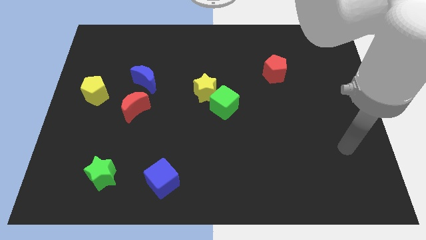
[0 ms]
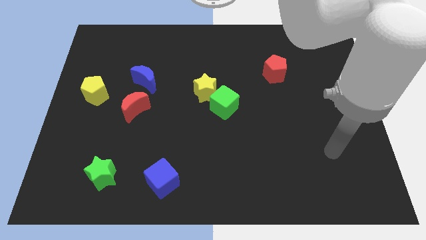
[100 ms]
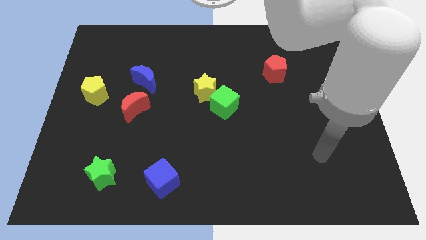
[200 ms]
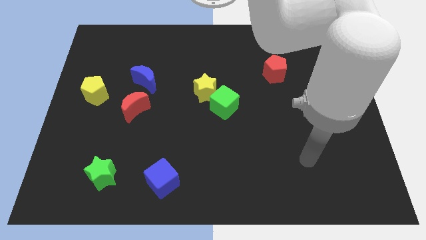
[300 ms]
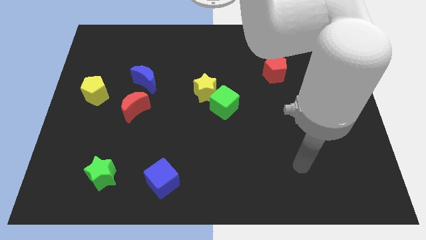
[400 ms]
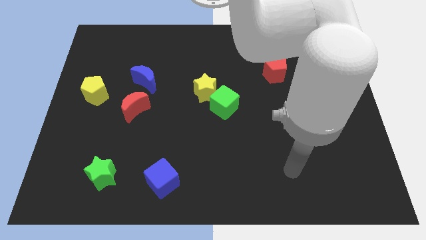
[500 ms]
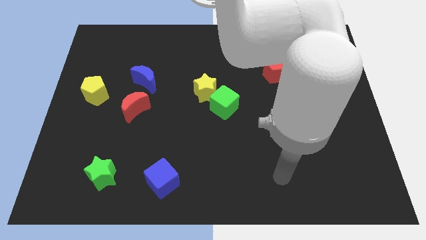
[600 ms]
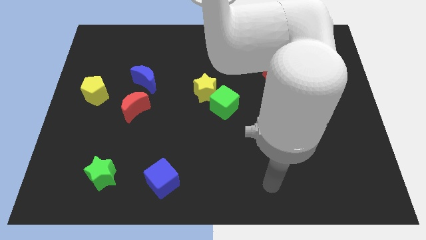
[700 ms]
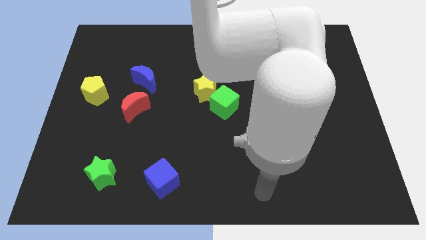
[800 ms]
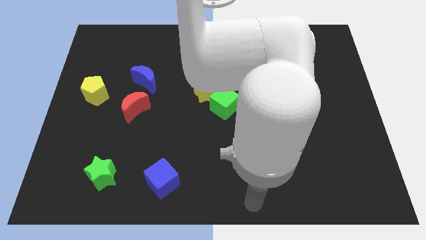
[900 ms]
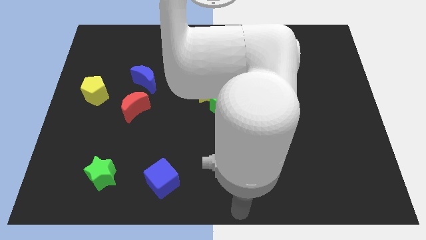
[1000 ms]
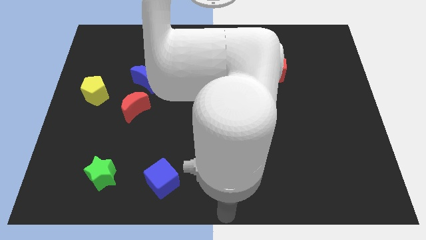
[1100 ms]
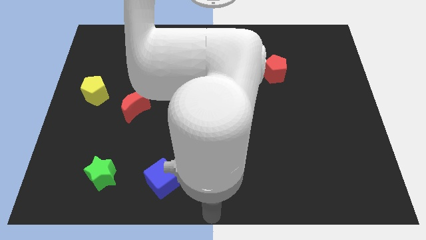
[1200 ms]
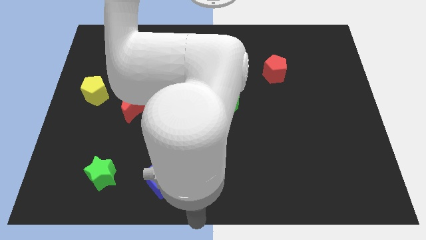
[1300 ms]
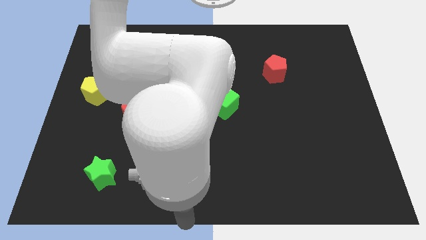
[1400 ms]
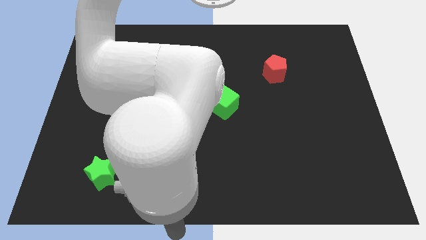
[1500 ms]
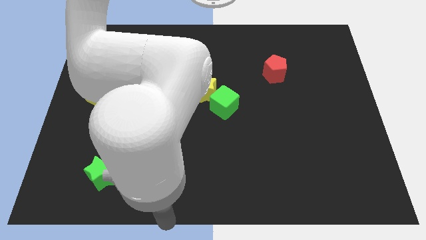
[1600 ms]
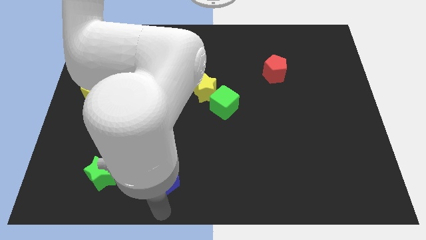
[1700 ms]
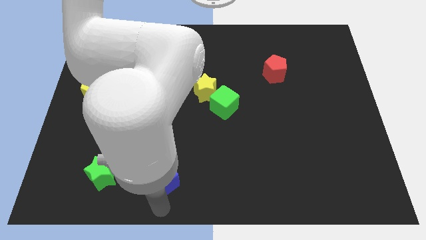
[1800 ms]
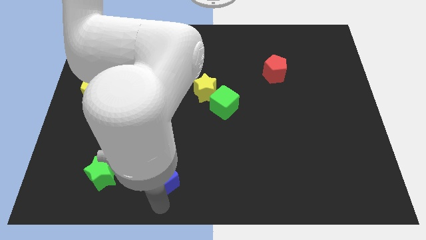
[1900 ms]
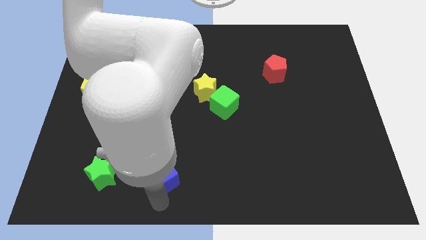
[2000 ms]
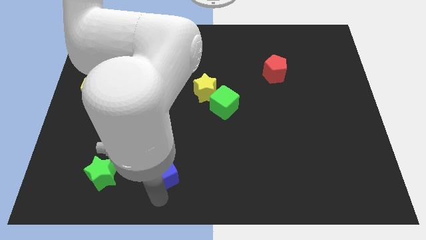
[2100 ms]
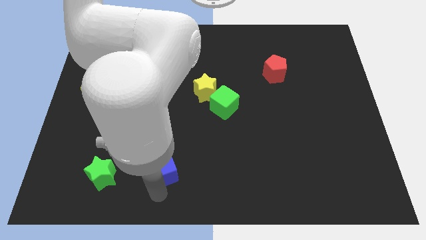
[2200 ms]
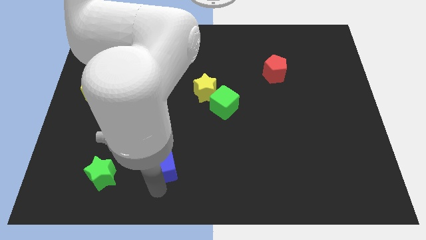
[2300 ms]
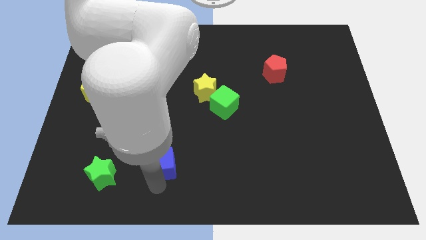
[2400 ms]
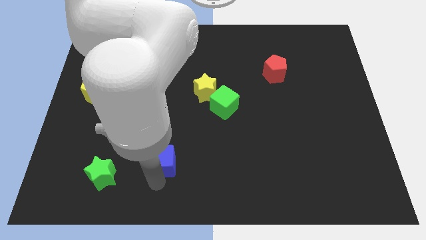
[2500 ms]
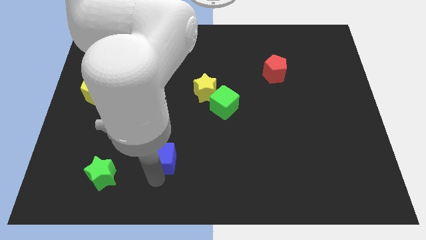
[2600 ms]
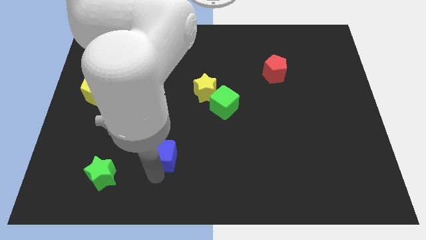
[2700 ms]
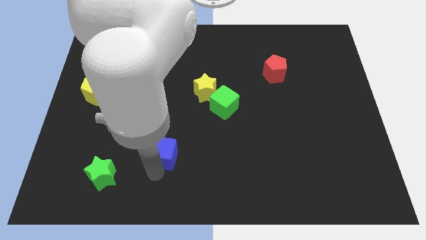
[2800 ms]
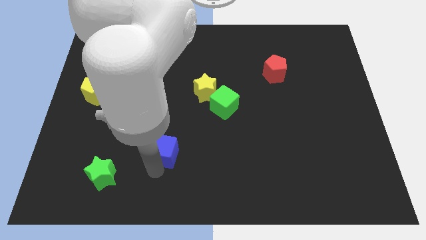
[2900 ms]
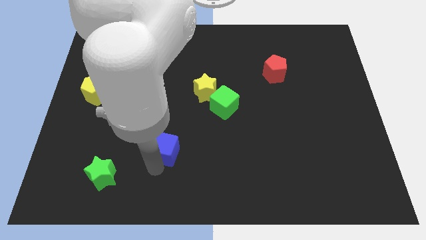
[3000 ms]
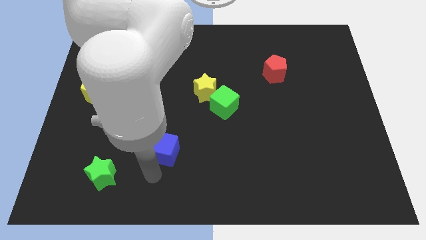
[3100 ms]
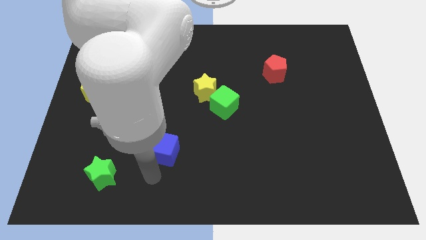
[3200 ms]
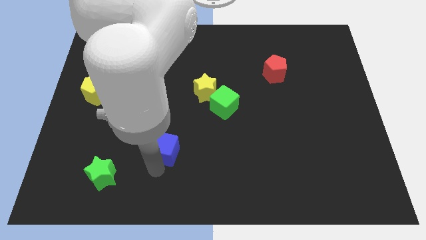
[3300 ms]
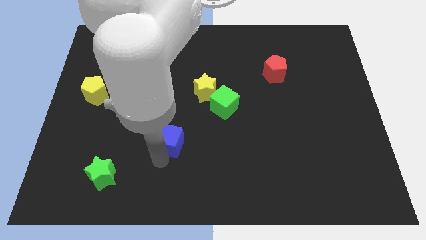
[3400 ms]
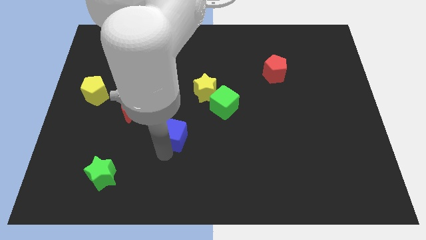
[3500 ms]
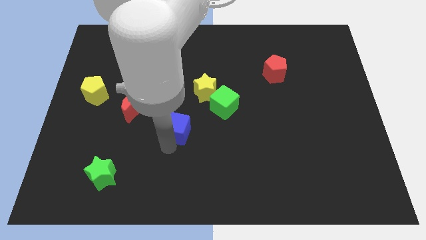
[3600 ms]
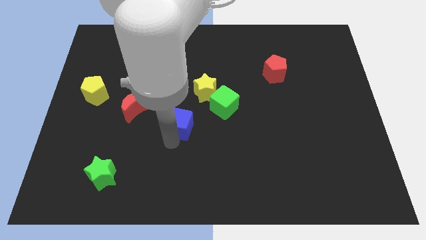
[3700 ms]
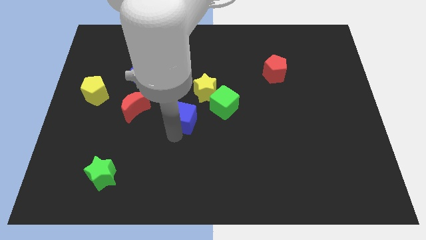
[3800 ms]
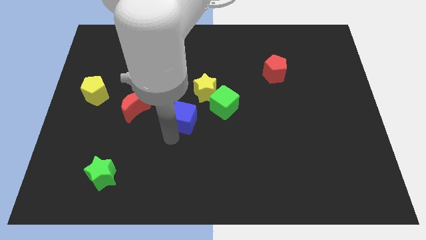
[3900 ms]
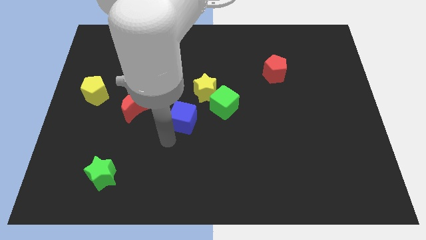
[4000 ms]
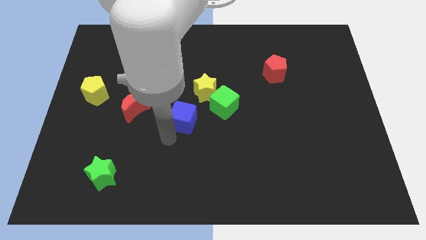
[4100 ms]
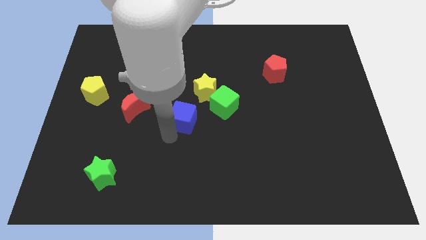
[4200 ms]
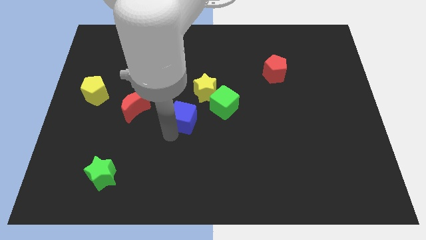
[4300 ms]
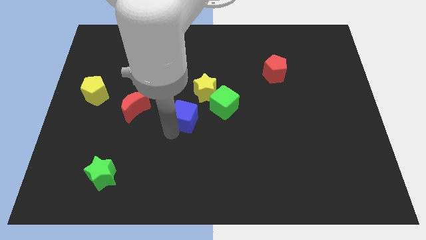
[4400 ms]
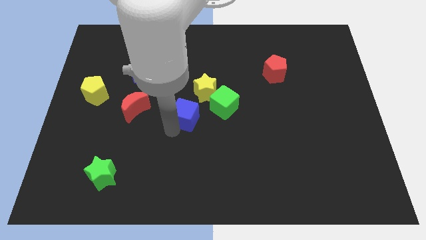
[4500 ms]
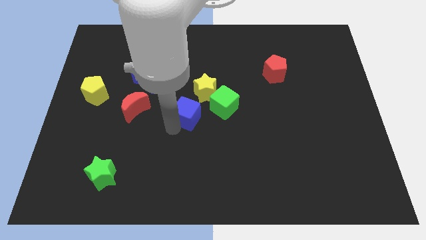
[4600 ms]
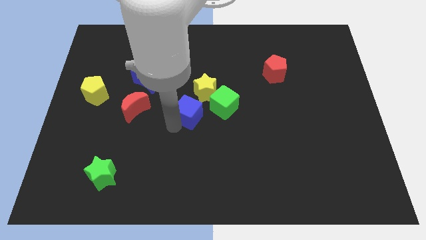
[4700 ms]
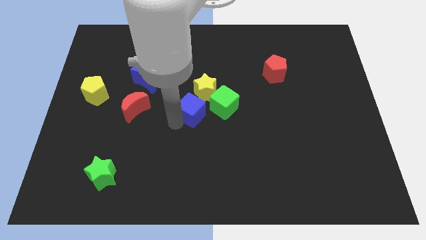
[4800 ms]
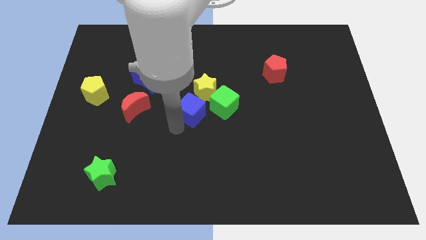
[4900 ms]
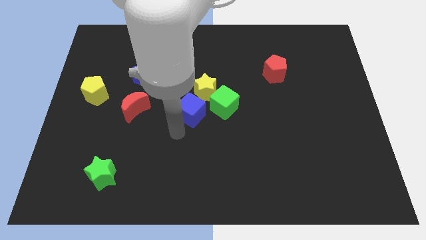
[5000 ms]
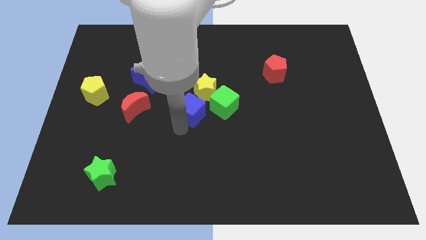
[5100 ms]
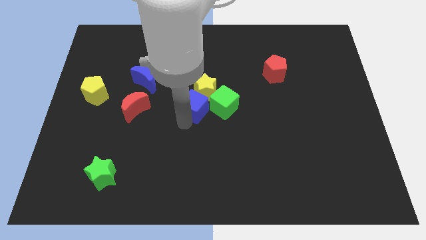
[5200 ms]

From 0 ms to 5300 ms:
push the blue cube next to the yellow star

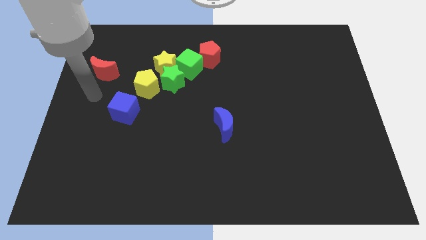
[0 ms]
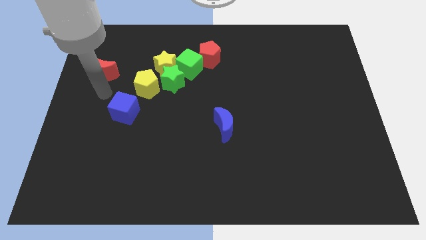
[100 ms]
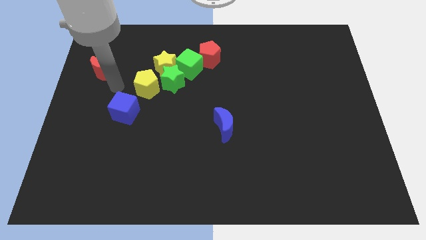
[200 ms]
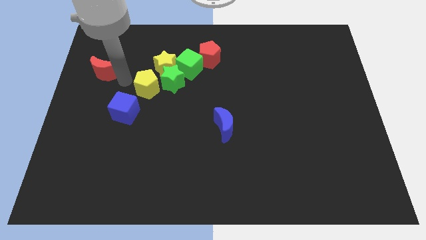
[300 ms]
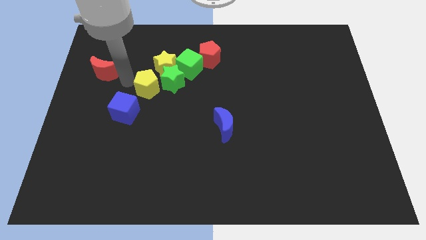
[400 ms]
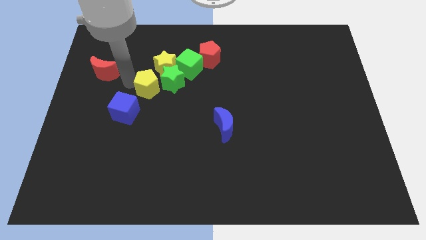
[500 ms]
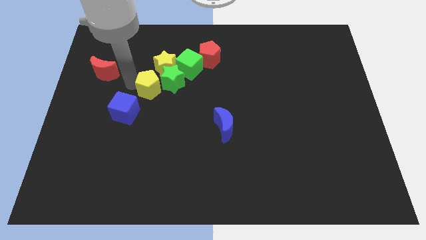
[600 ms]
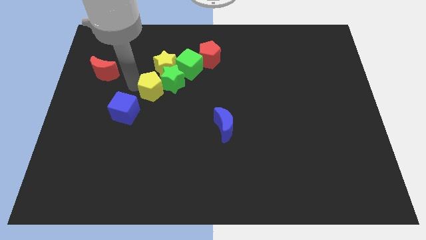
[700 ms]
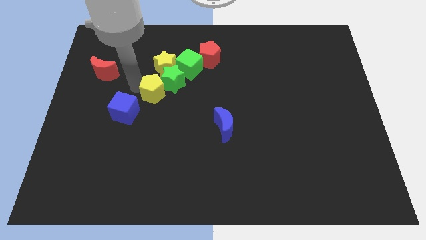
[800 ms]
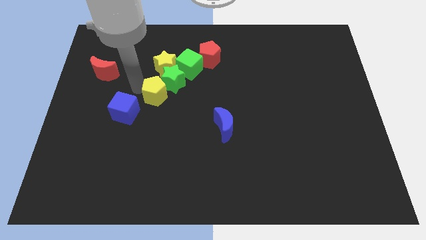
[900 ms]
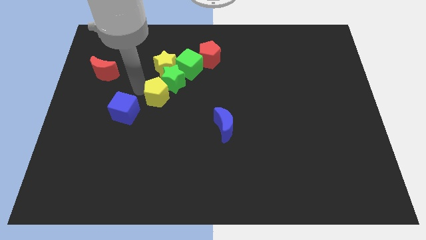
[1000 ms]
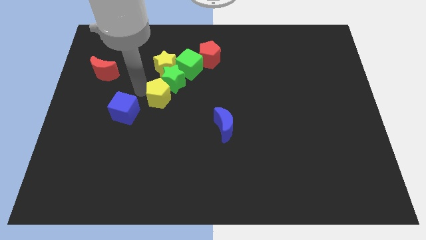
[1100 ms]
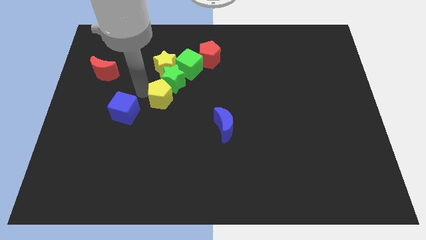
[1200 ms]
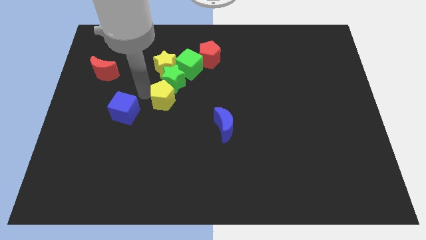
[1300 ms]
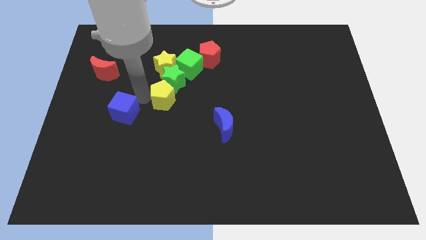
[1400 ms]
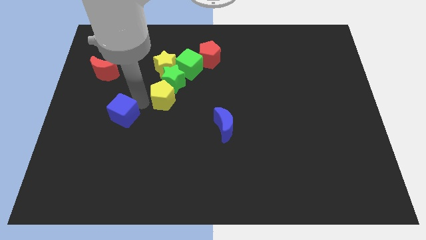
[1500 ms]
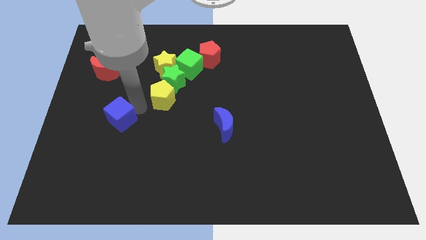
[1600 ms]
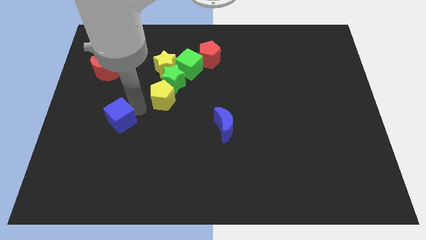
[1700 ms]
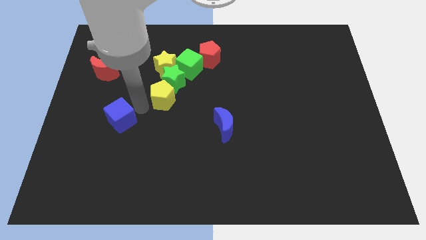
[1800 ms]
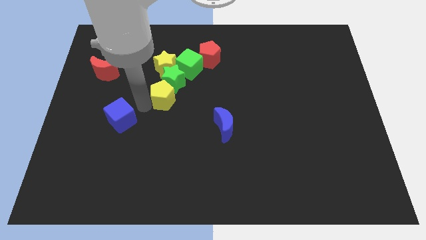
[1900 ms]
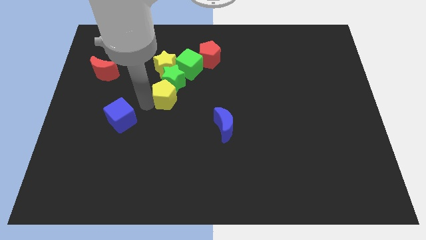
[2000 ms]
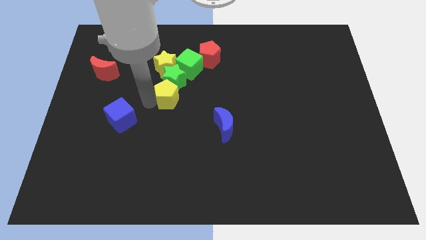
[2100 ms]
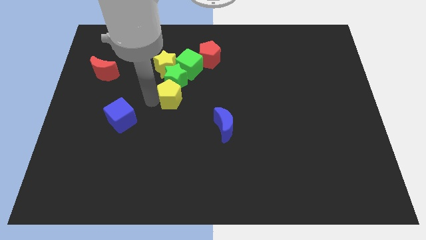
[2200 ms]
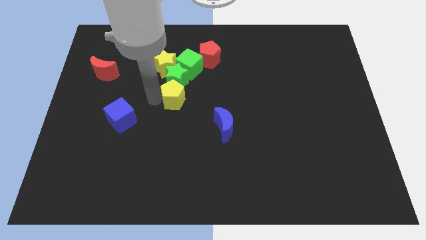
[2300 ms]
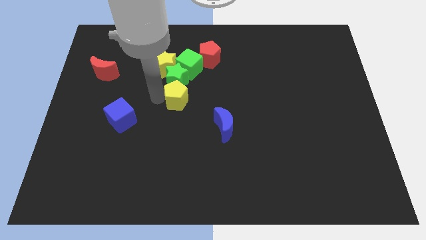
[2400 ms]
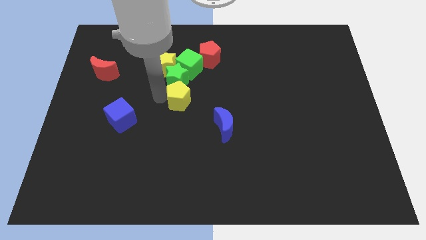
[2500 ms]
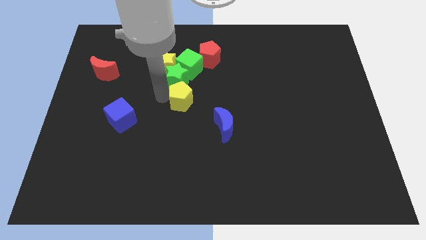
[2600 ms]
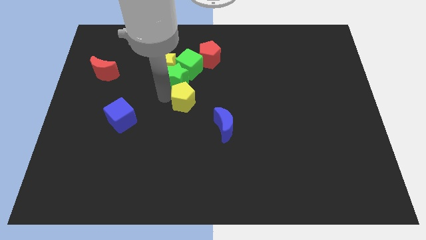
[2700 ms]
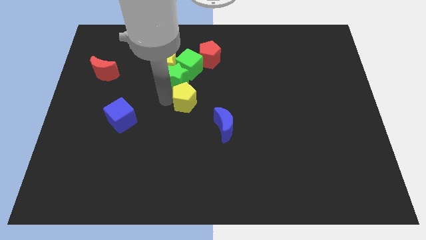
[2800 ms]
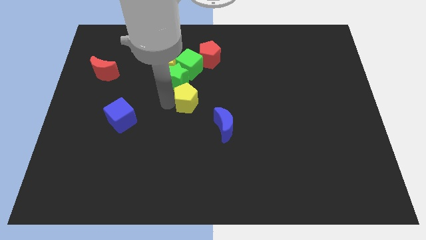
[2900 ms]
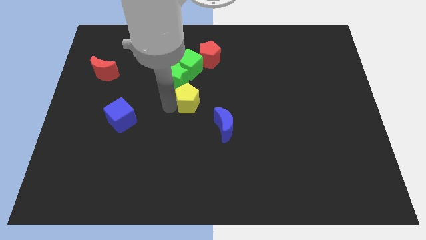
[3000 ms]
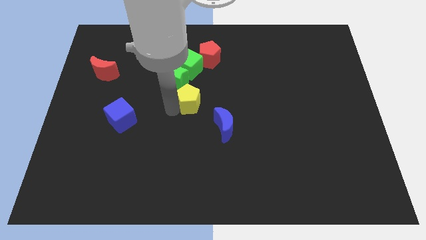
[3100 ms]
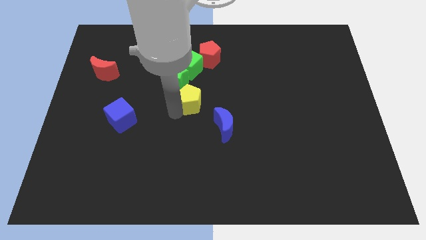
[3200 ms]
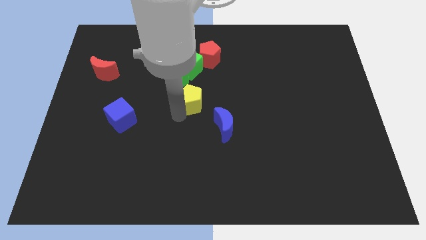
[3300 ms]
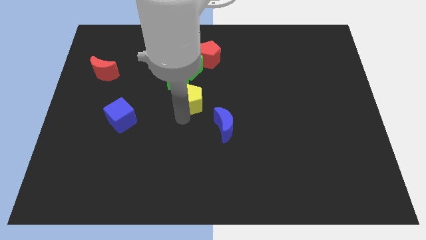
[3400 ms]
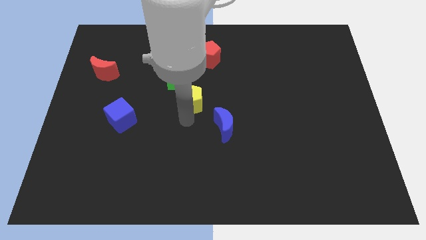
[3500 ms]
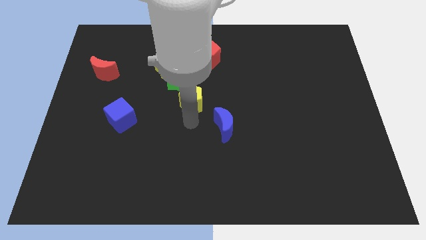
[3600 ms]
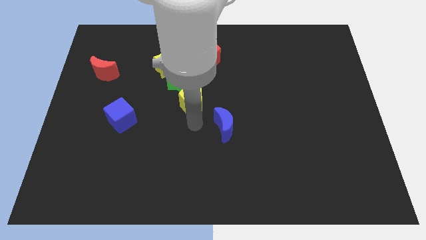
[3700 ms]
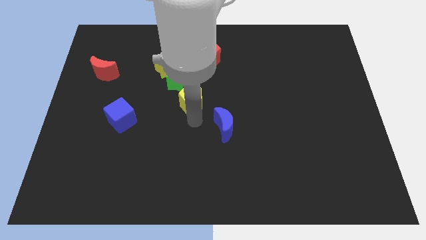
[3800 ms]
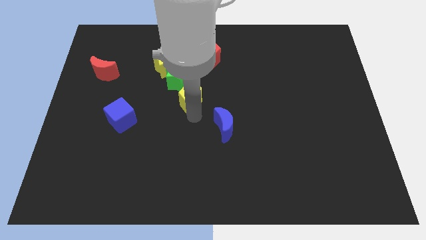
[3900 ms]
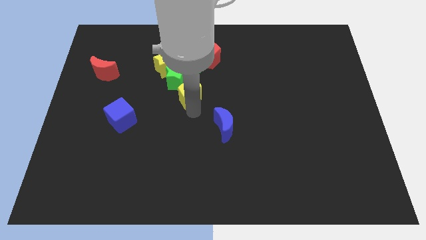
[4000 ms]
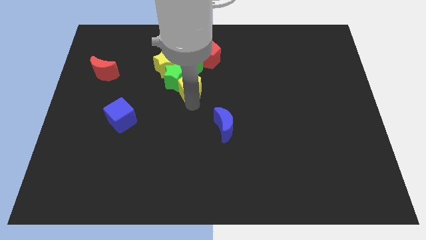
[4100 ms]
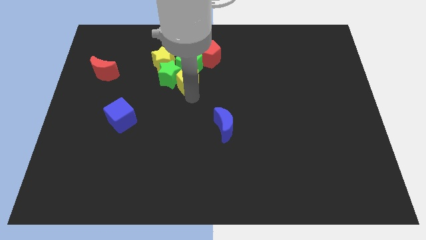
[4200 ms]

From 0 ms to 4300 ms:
move the yellow pentagon to the green cube
